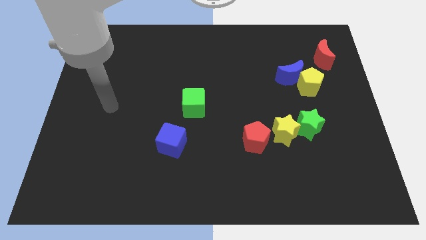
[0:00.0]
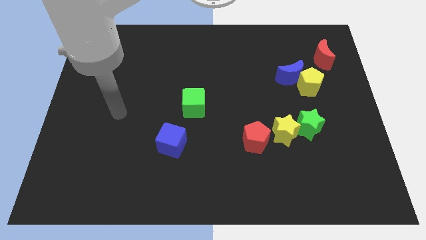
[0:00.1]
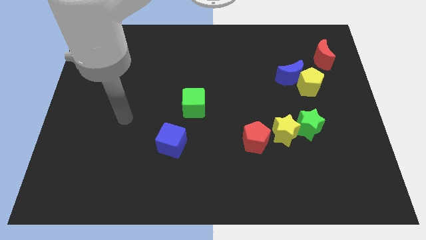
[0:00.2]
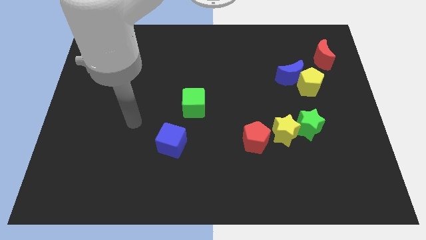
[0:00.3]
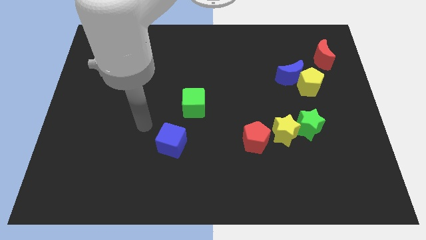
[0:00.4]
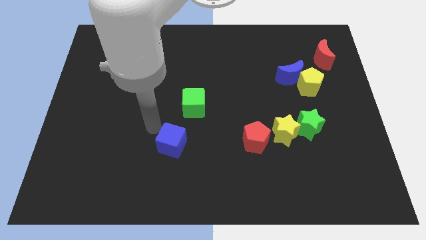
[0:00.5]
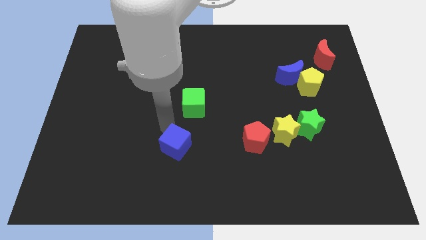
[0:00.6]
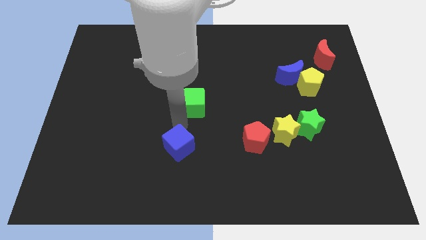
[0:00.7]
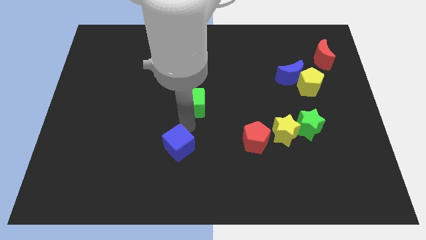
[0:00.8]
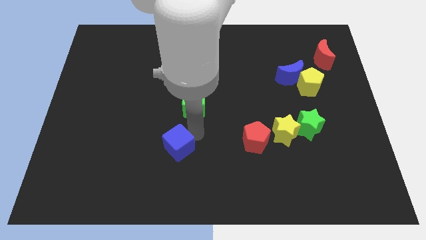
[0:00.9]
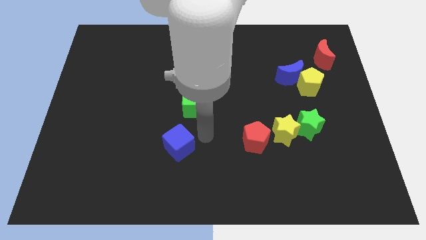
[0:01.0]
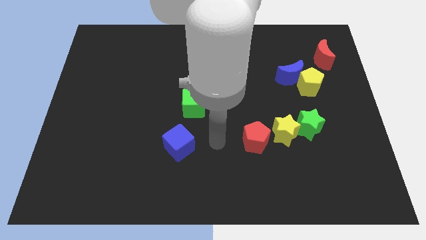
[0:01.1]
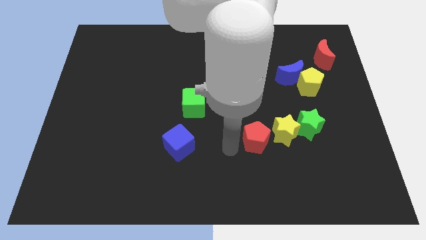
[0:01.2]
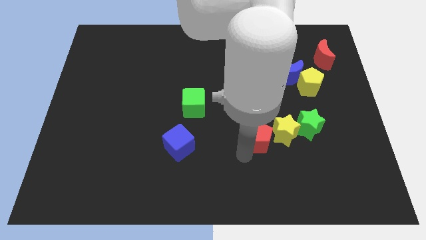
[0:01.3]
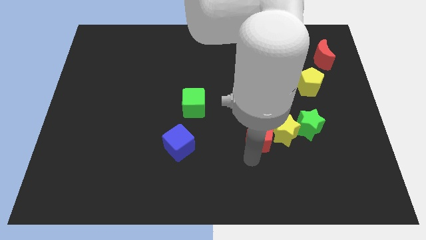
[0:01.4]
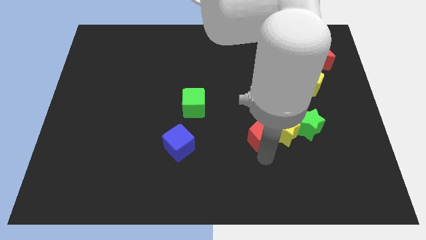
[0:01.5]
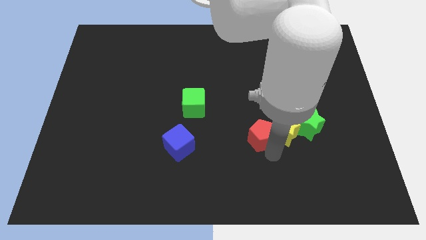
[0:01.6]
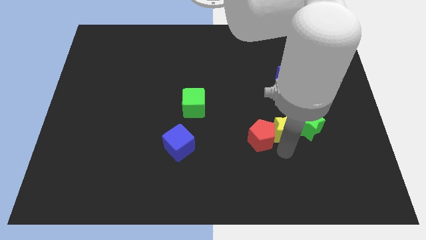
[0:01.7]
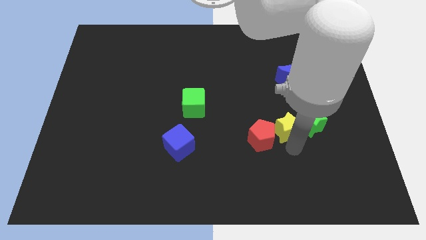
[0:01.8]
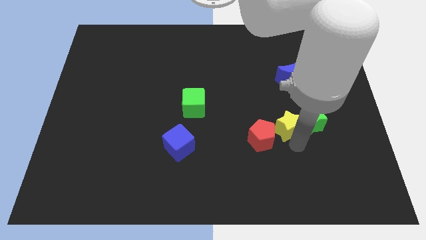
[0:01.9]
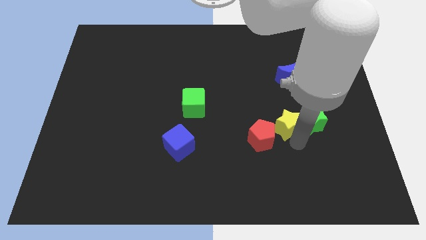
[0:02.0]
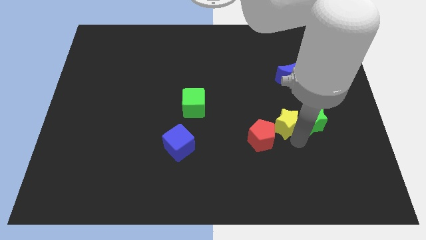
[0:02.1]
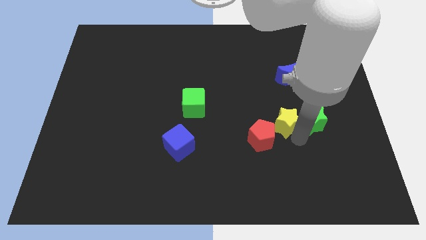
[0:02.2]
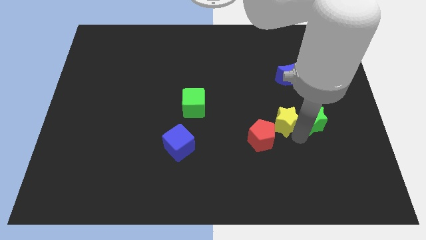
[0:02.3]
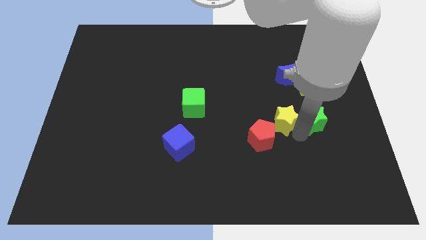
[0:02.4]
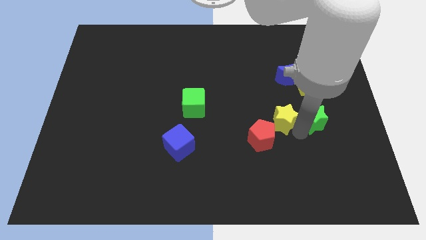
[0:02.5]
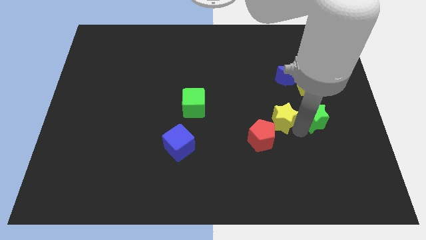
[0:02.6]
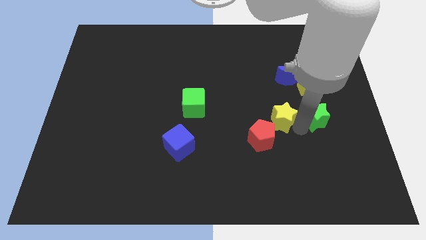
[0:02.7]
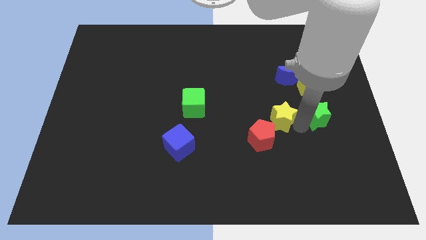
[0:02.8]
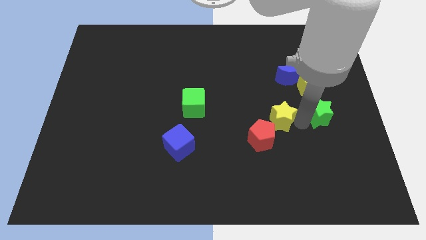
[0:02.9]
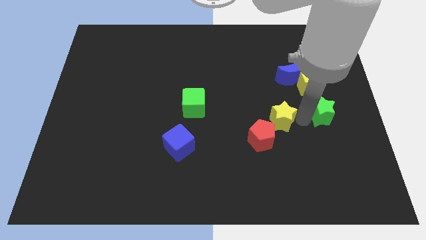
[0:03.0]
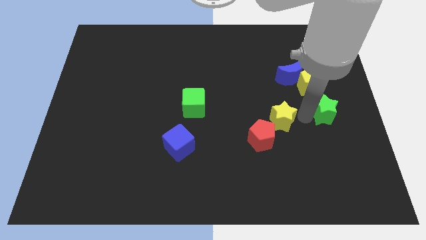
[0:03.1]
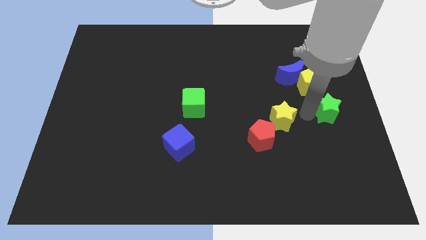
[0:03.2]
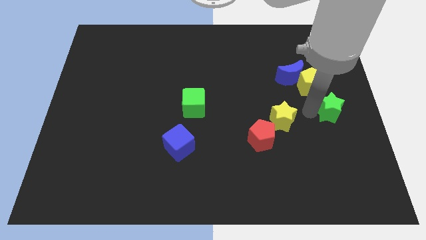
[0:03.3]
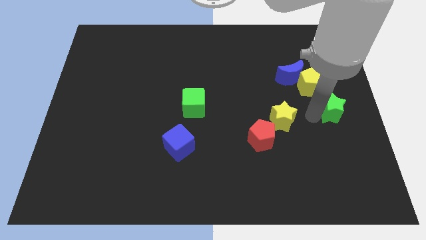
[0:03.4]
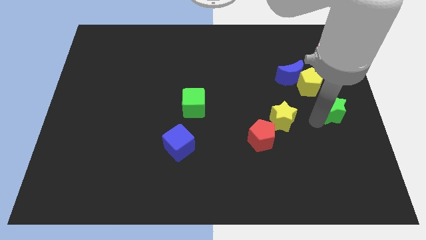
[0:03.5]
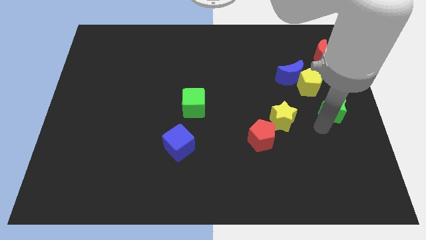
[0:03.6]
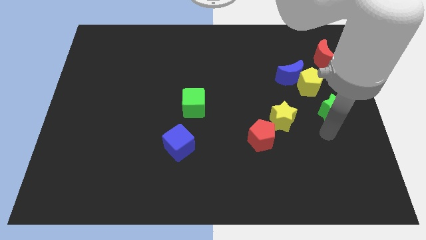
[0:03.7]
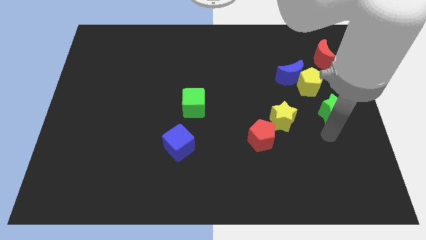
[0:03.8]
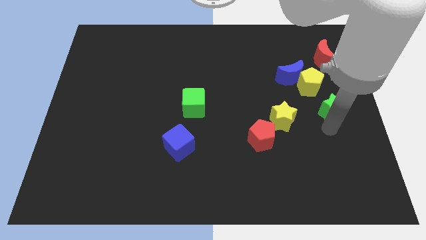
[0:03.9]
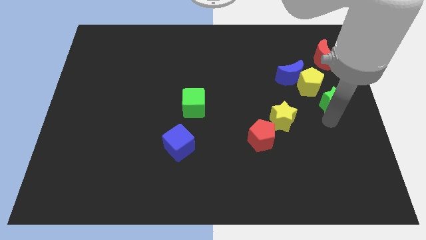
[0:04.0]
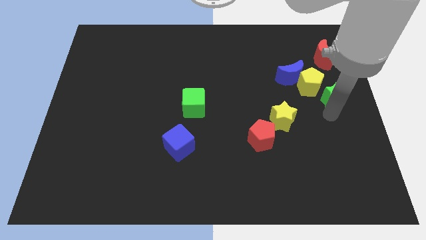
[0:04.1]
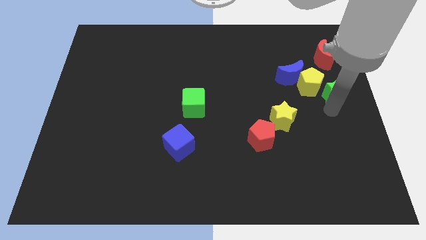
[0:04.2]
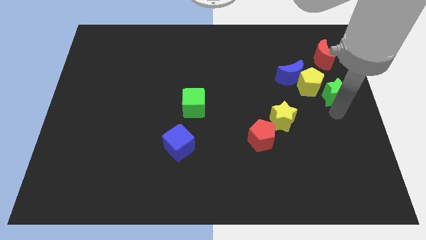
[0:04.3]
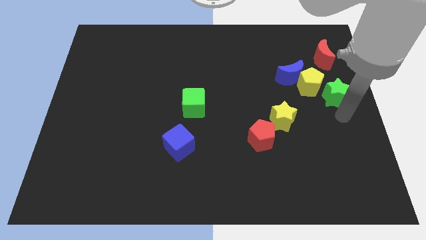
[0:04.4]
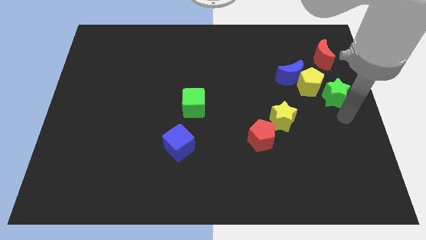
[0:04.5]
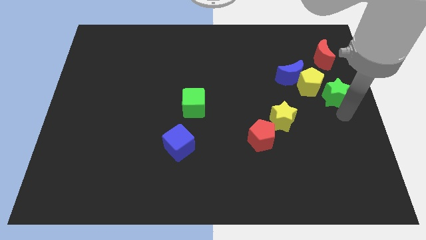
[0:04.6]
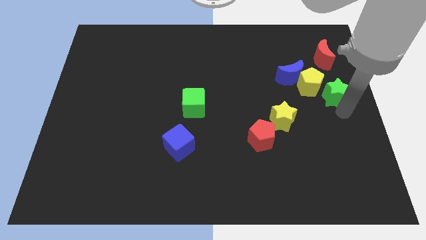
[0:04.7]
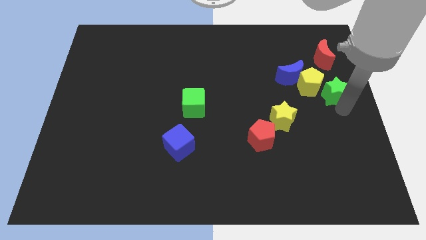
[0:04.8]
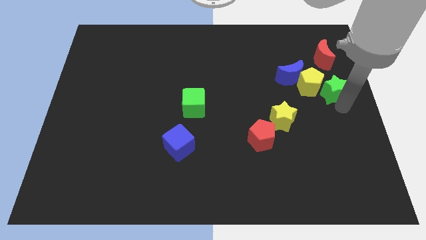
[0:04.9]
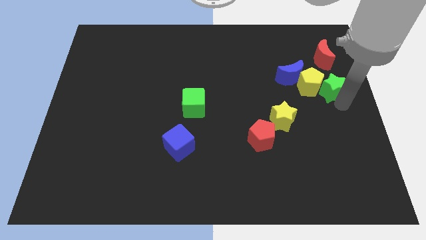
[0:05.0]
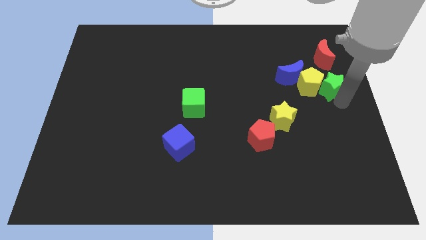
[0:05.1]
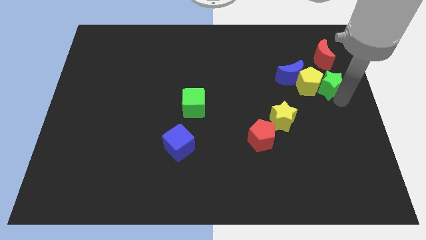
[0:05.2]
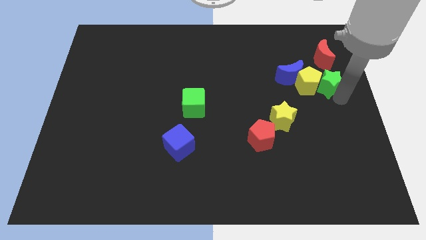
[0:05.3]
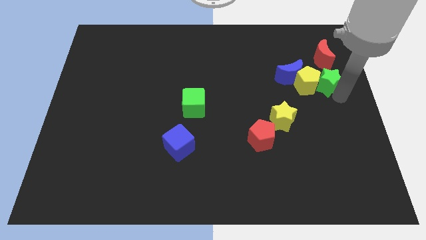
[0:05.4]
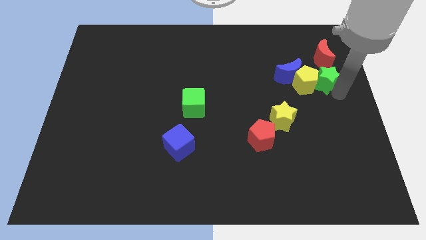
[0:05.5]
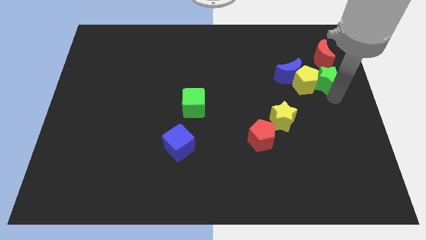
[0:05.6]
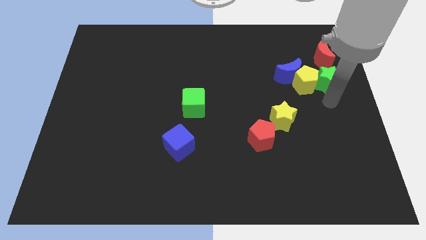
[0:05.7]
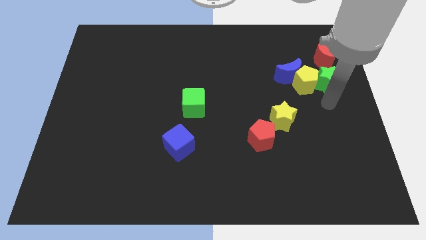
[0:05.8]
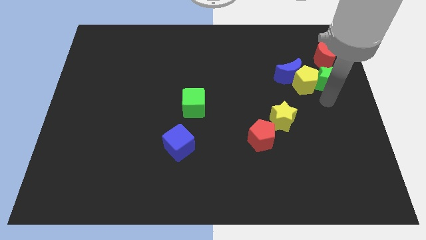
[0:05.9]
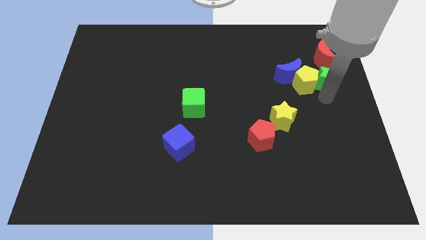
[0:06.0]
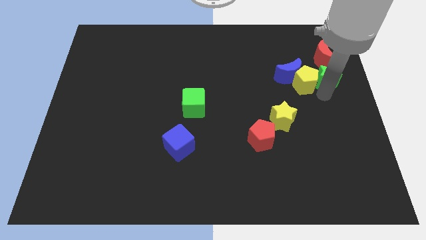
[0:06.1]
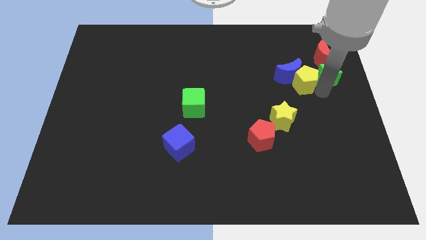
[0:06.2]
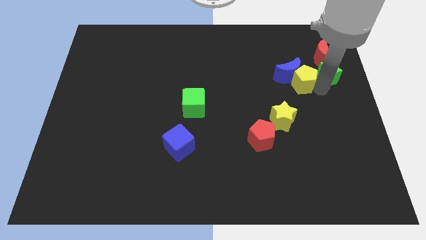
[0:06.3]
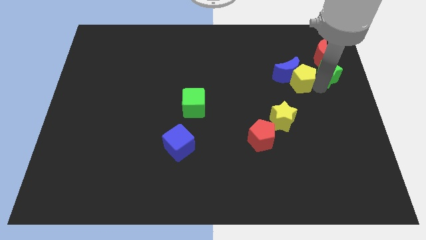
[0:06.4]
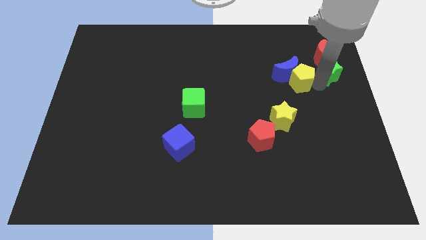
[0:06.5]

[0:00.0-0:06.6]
move the green star towards the red moon

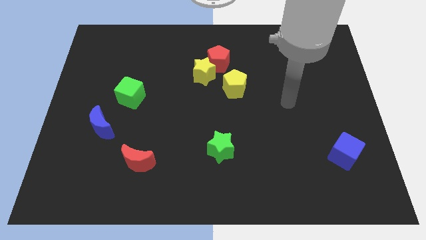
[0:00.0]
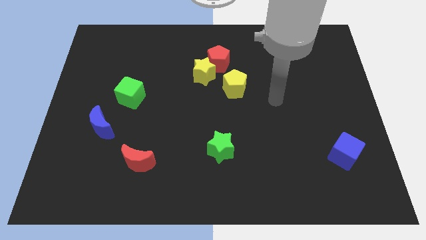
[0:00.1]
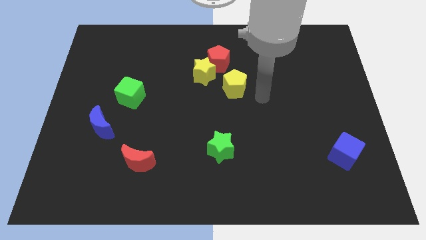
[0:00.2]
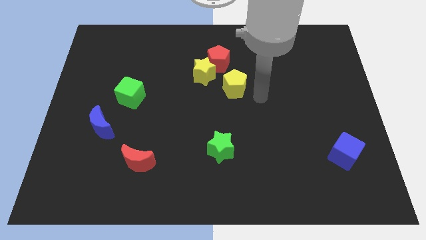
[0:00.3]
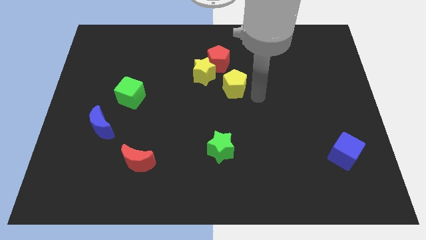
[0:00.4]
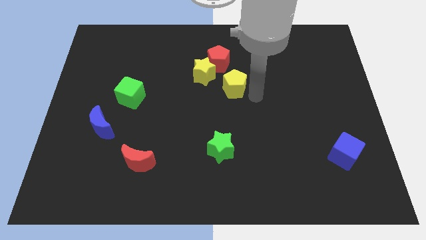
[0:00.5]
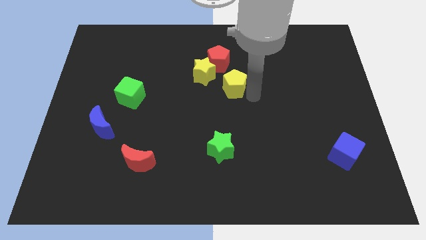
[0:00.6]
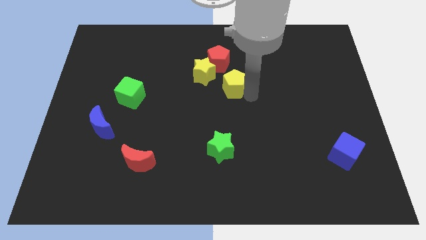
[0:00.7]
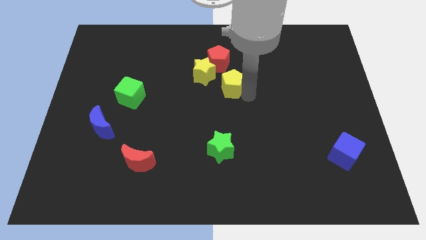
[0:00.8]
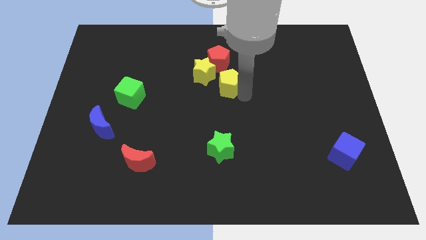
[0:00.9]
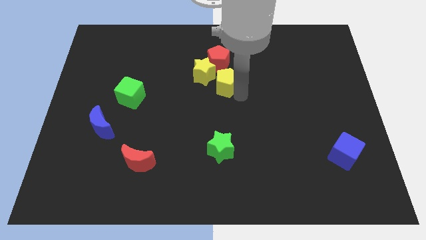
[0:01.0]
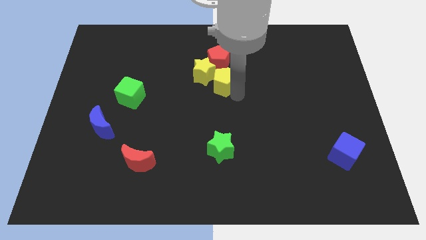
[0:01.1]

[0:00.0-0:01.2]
move the yellow pentagon to the yellow star
